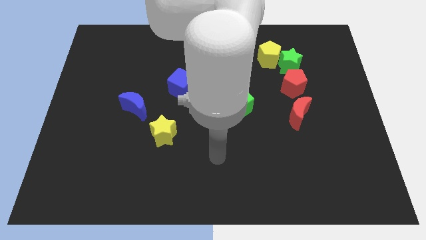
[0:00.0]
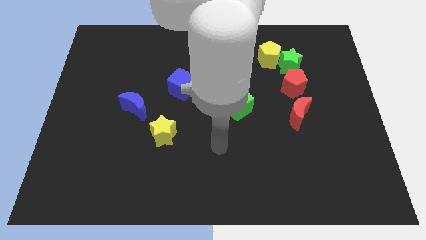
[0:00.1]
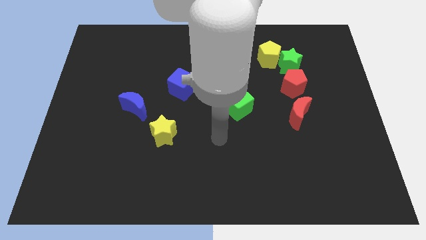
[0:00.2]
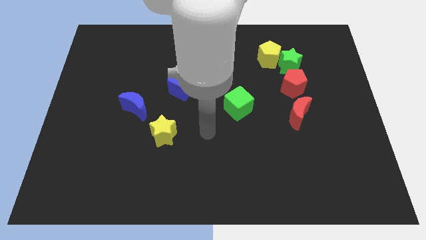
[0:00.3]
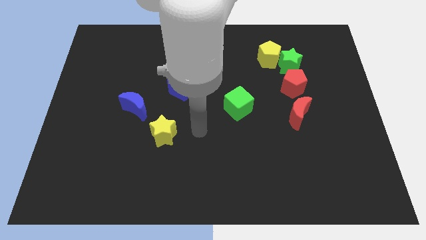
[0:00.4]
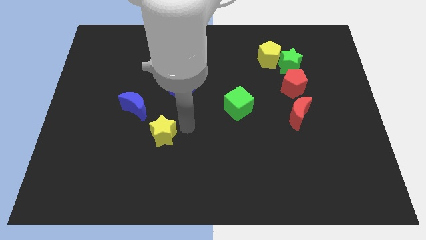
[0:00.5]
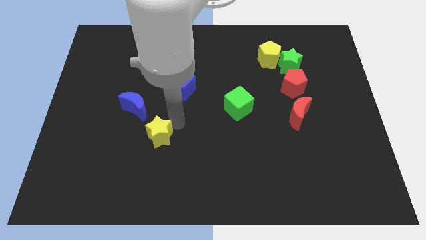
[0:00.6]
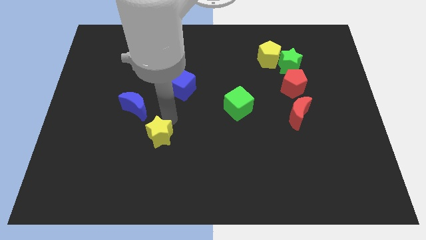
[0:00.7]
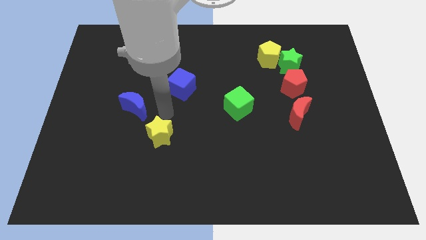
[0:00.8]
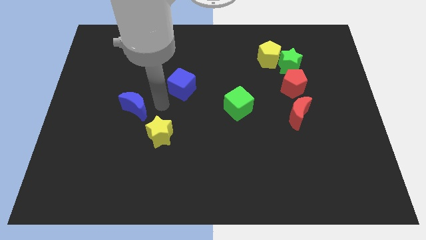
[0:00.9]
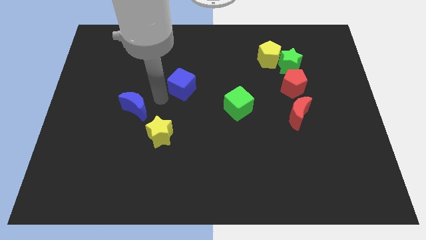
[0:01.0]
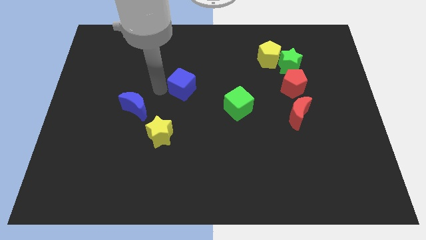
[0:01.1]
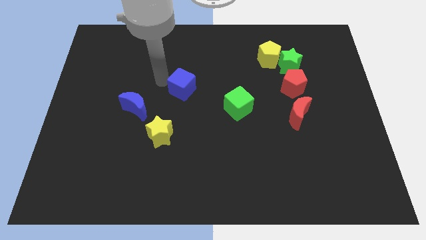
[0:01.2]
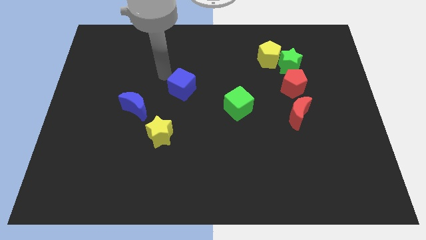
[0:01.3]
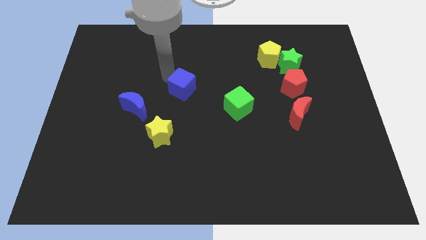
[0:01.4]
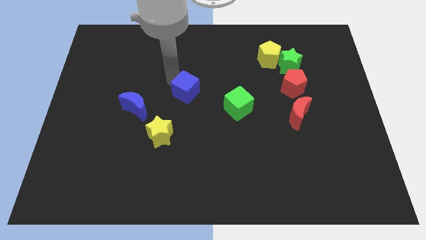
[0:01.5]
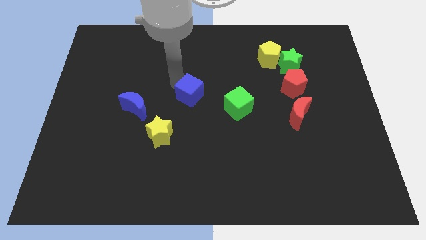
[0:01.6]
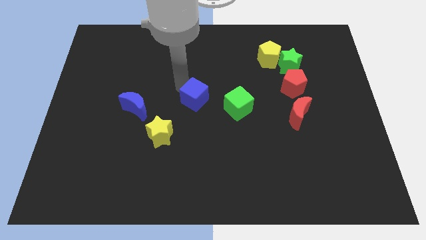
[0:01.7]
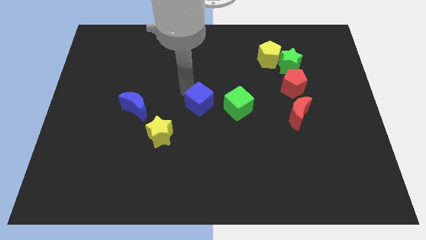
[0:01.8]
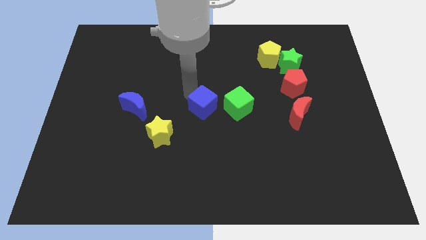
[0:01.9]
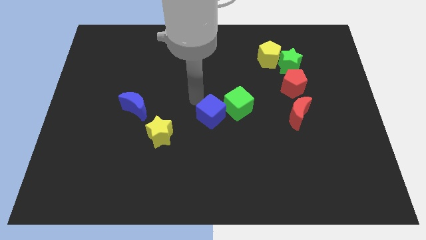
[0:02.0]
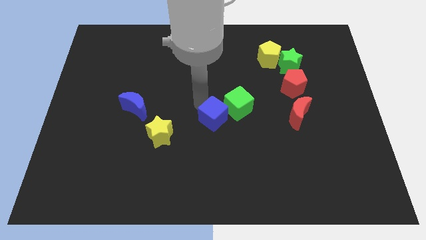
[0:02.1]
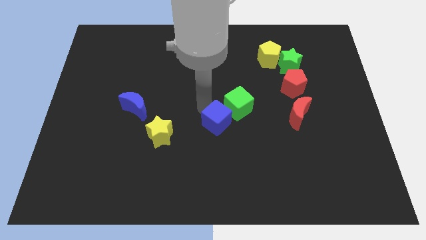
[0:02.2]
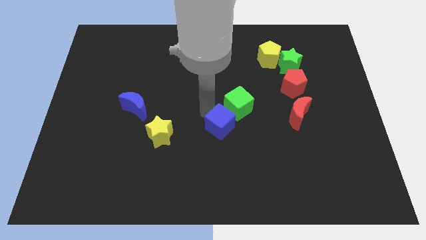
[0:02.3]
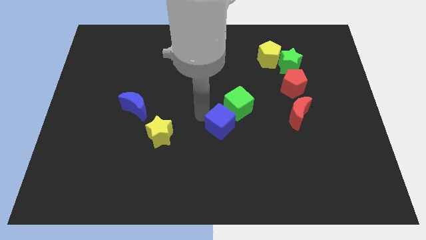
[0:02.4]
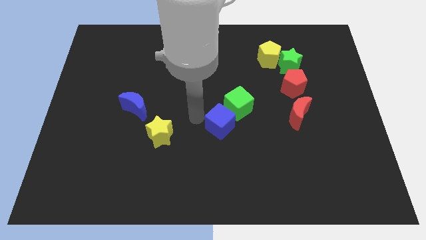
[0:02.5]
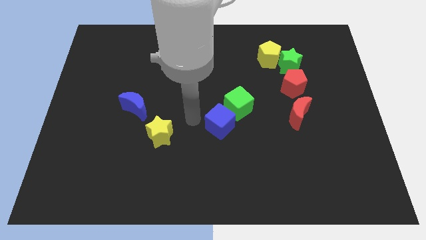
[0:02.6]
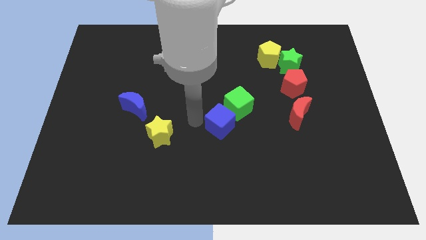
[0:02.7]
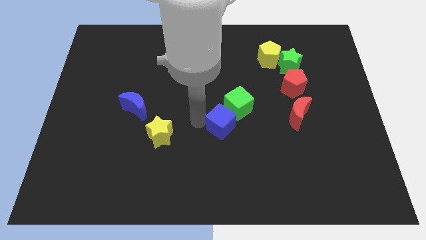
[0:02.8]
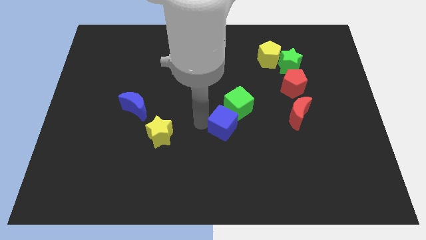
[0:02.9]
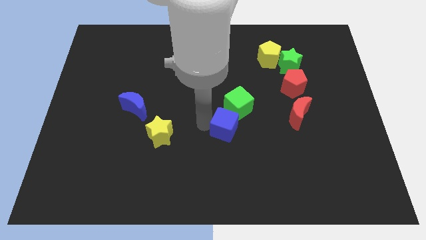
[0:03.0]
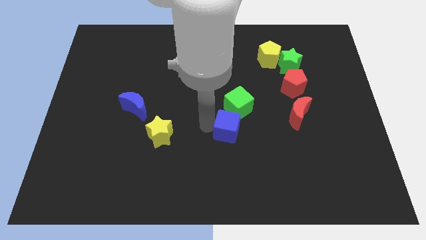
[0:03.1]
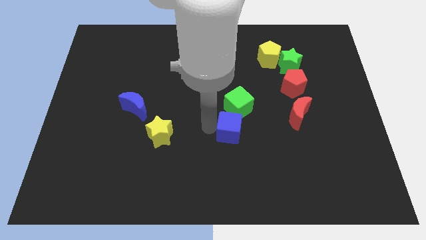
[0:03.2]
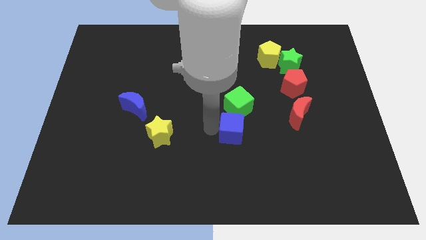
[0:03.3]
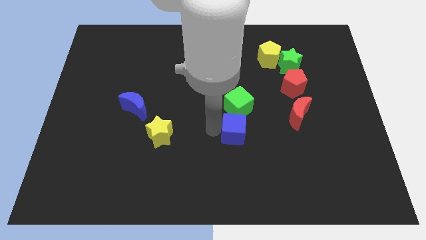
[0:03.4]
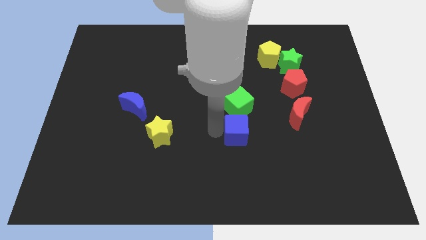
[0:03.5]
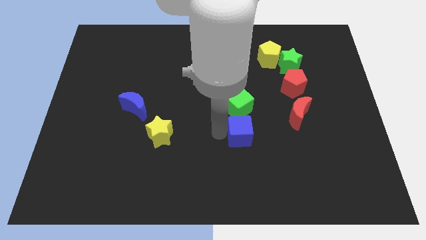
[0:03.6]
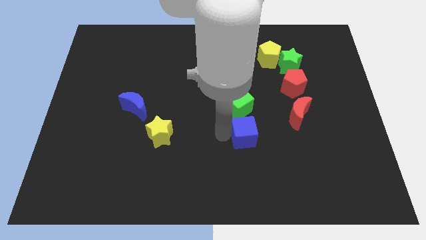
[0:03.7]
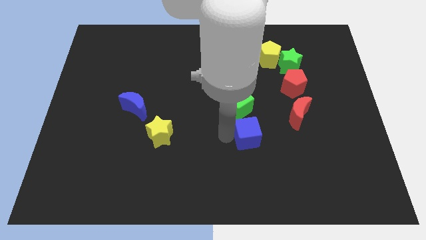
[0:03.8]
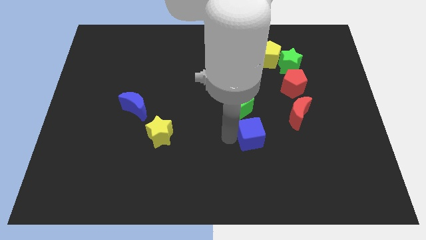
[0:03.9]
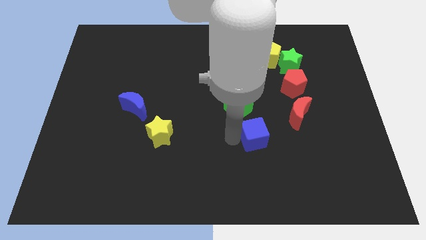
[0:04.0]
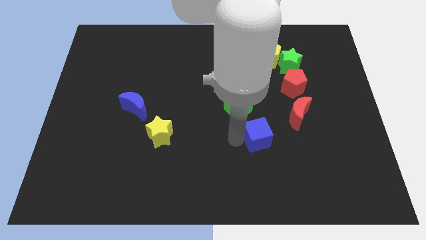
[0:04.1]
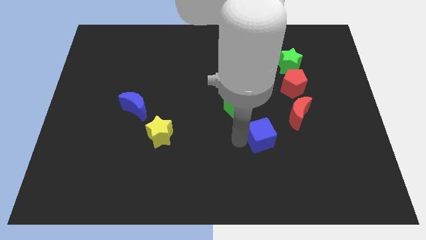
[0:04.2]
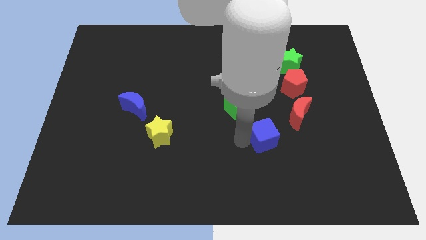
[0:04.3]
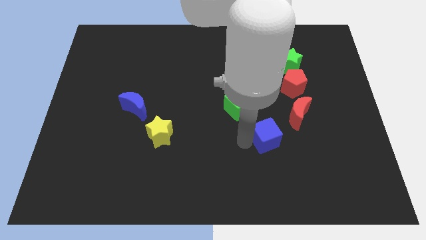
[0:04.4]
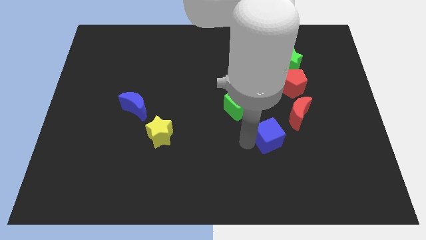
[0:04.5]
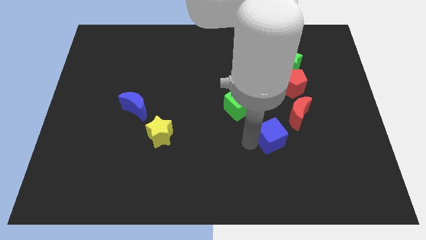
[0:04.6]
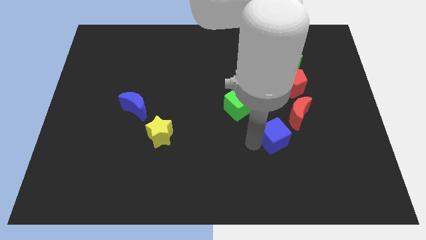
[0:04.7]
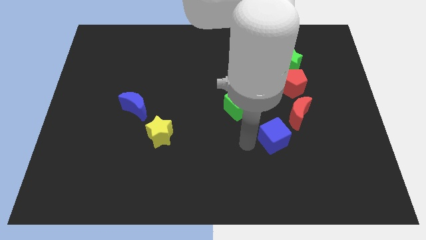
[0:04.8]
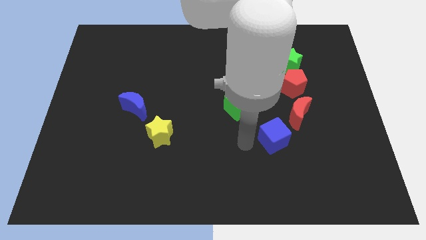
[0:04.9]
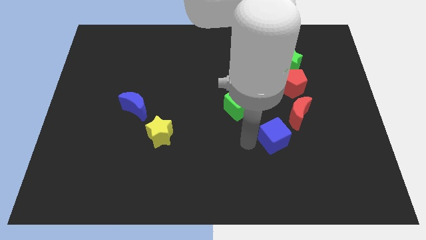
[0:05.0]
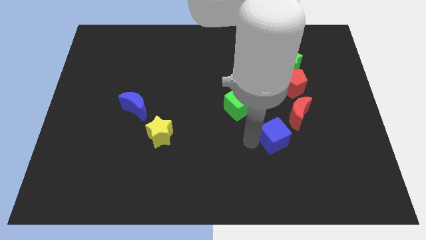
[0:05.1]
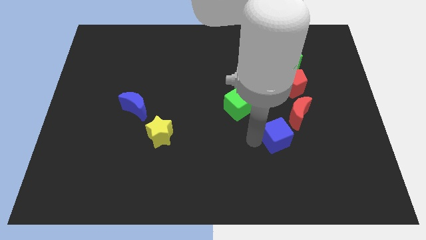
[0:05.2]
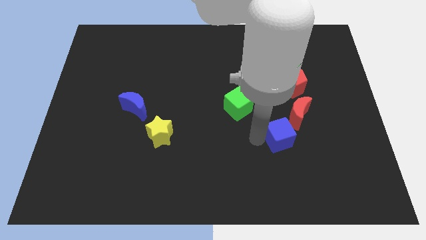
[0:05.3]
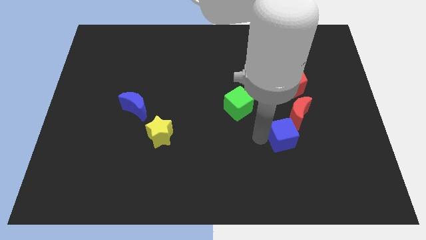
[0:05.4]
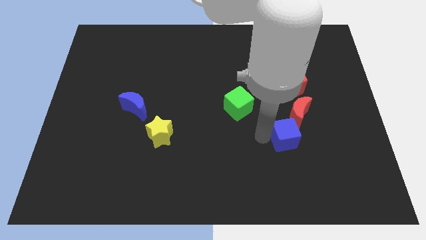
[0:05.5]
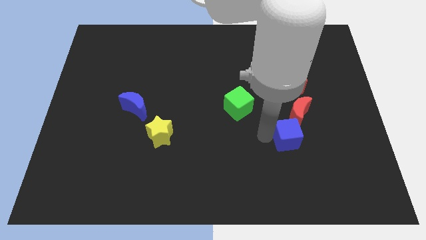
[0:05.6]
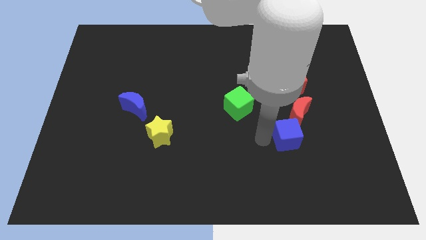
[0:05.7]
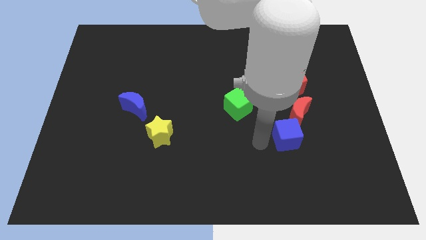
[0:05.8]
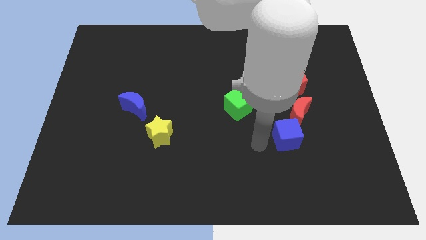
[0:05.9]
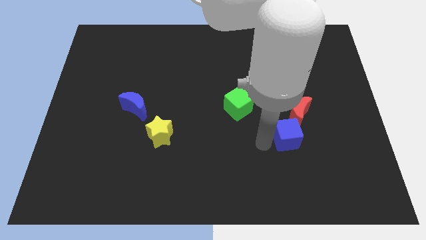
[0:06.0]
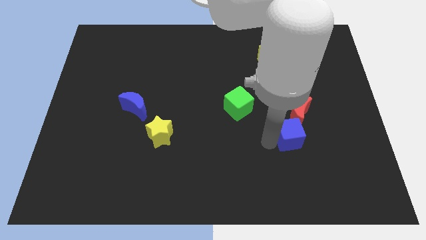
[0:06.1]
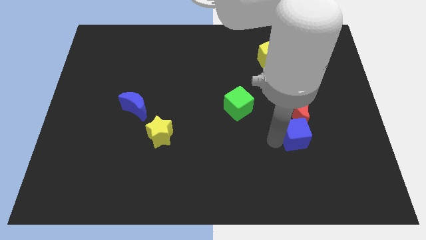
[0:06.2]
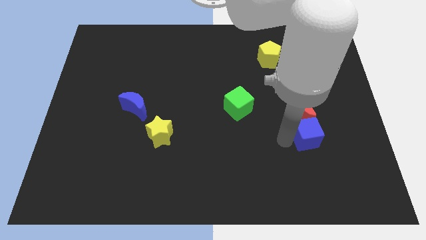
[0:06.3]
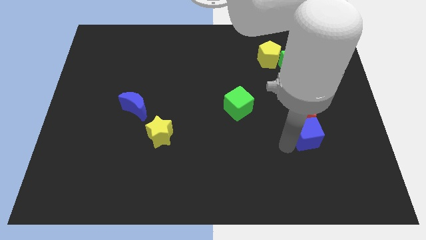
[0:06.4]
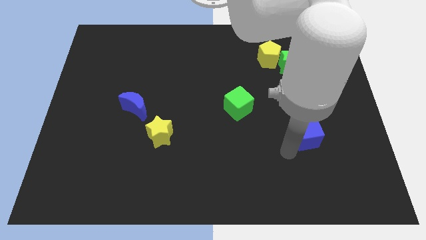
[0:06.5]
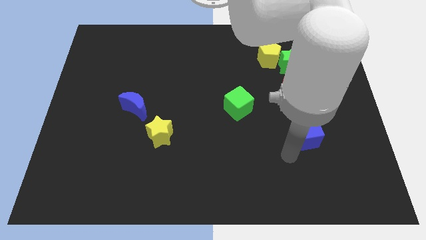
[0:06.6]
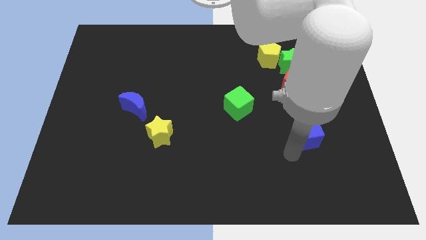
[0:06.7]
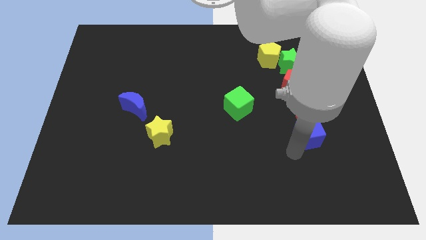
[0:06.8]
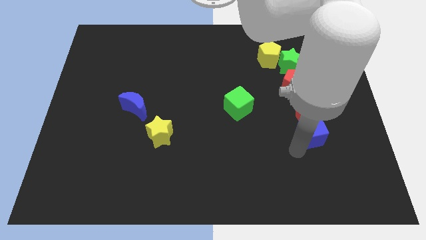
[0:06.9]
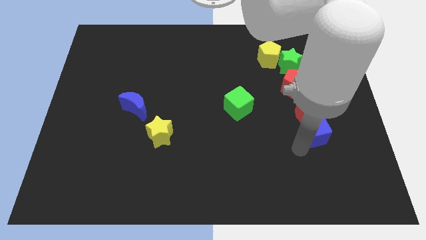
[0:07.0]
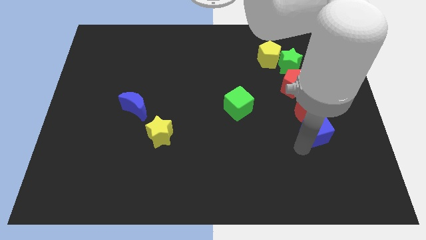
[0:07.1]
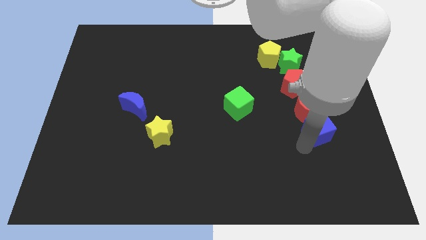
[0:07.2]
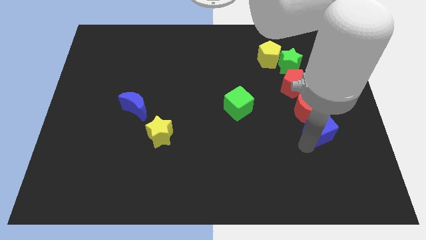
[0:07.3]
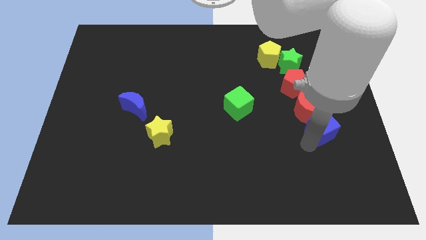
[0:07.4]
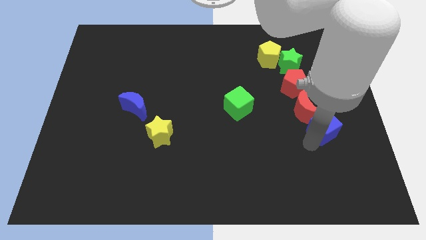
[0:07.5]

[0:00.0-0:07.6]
slide the blue cube to the right

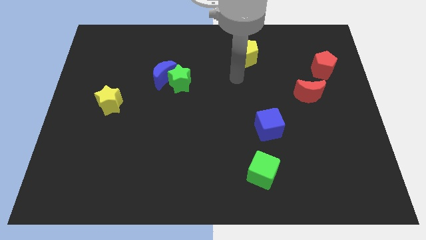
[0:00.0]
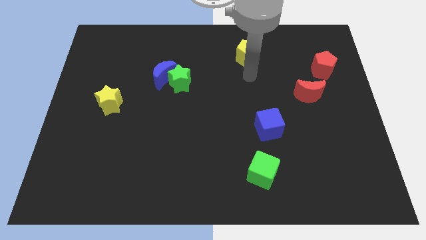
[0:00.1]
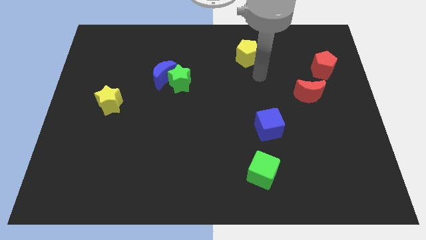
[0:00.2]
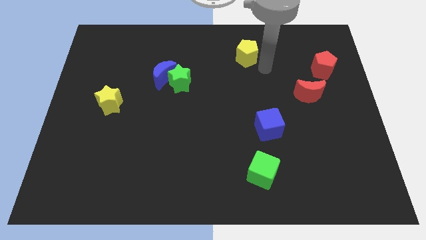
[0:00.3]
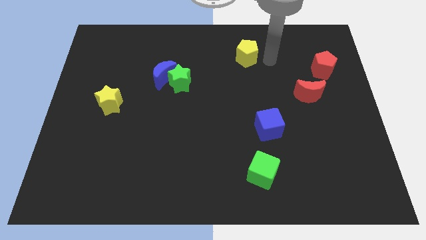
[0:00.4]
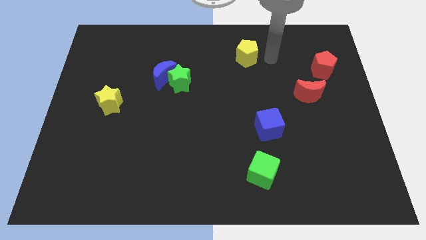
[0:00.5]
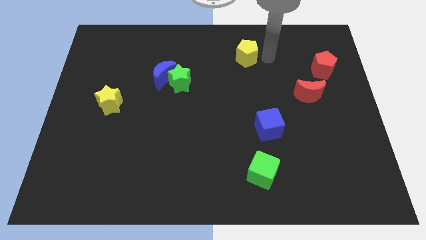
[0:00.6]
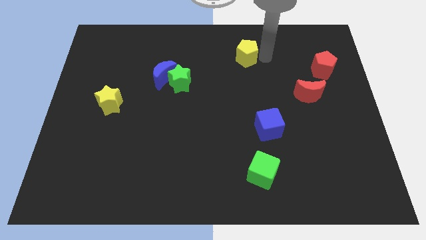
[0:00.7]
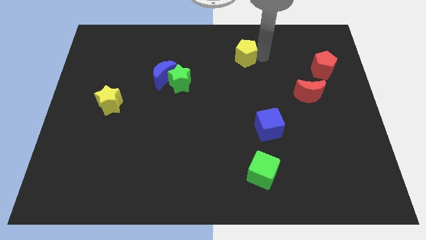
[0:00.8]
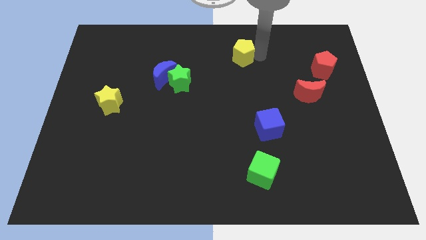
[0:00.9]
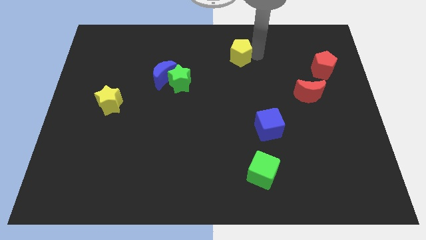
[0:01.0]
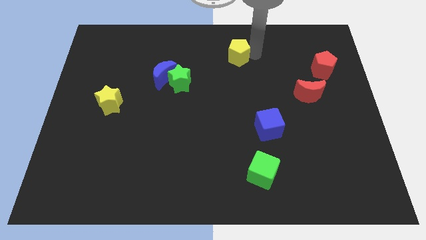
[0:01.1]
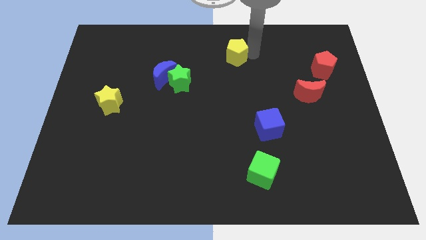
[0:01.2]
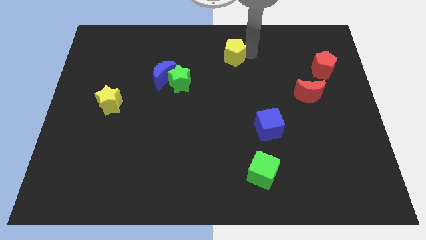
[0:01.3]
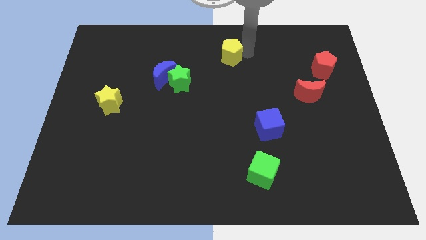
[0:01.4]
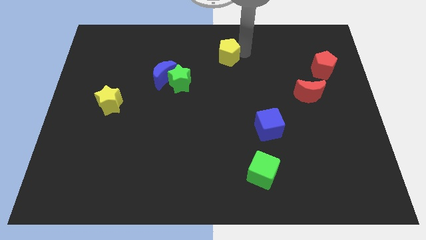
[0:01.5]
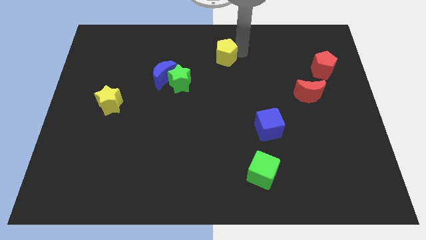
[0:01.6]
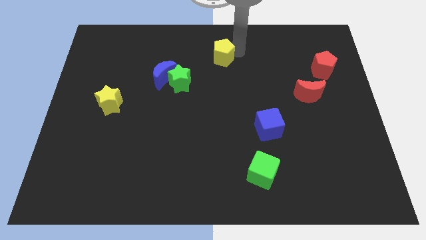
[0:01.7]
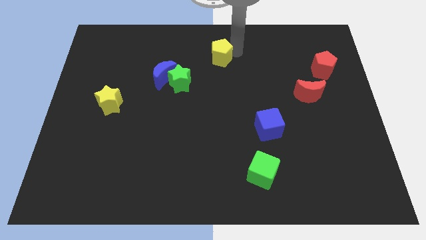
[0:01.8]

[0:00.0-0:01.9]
slightly push the yellow pentagon left
